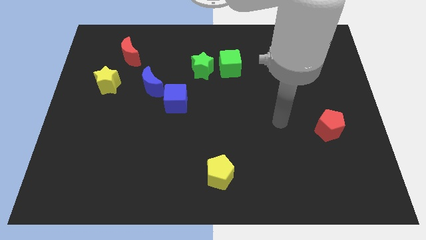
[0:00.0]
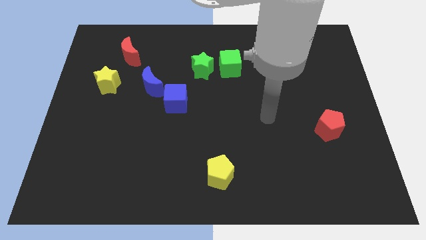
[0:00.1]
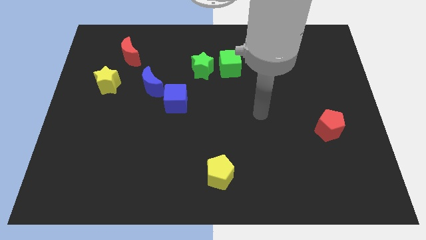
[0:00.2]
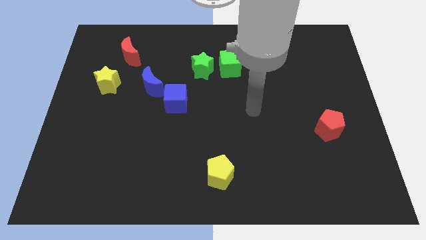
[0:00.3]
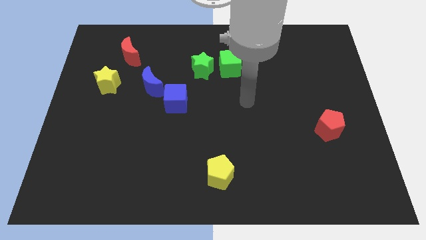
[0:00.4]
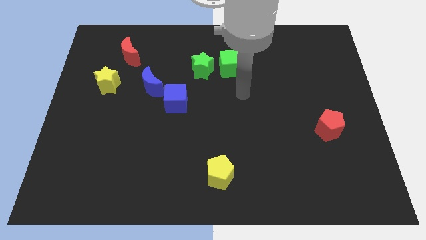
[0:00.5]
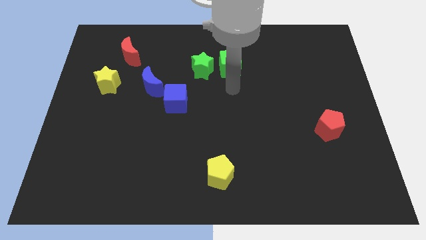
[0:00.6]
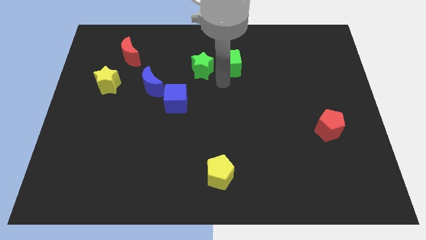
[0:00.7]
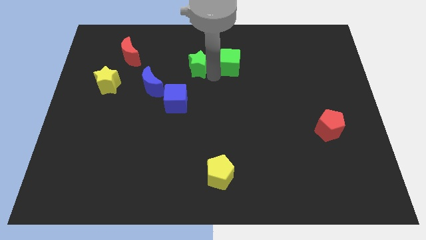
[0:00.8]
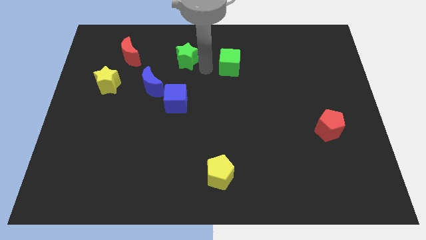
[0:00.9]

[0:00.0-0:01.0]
separate the green cube from the green star

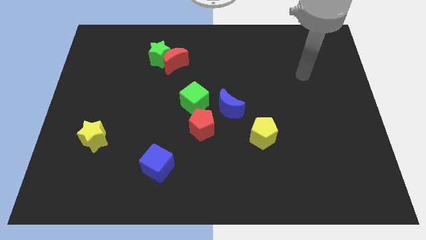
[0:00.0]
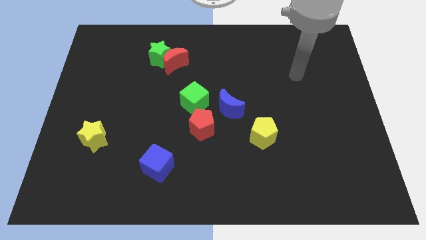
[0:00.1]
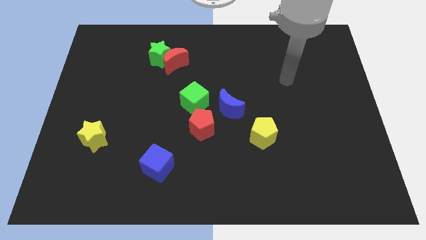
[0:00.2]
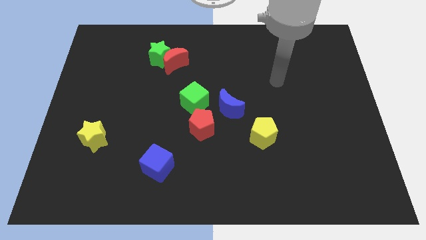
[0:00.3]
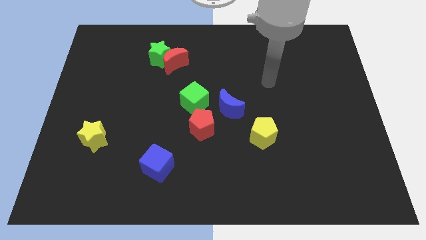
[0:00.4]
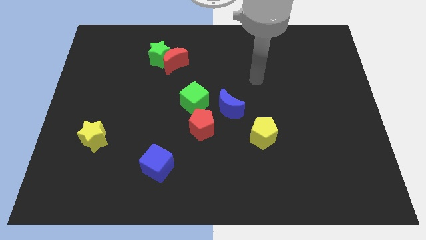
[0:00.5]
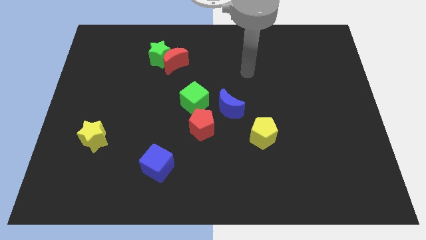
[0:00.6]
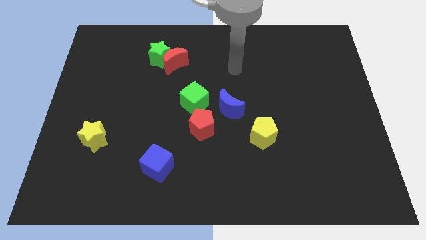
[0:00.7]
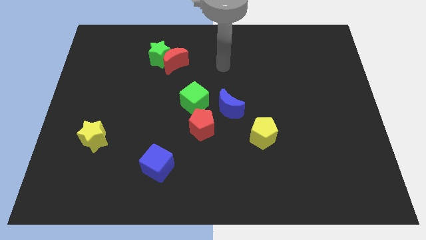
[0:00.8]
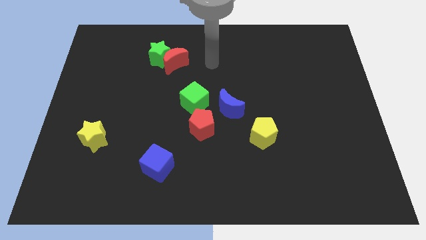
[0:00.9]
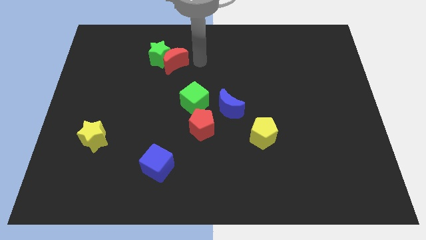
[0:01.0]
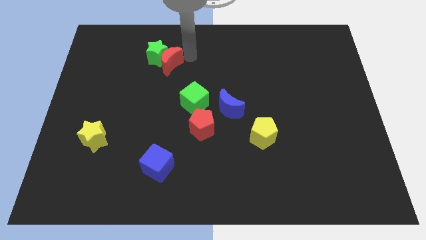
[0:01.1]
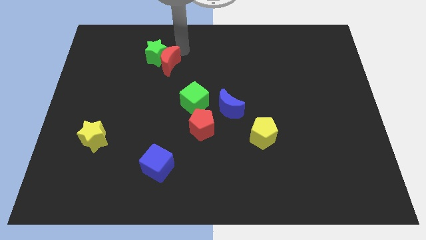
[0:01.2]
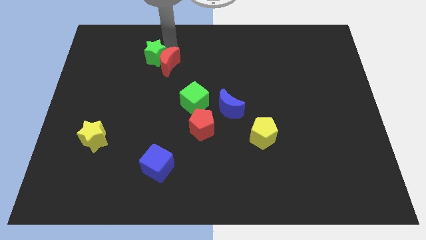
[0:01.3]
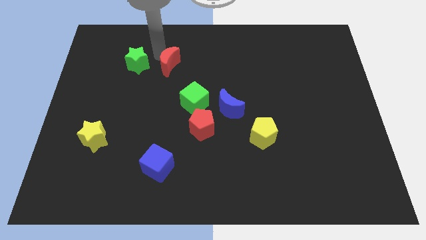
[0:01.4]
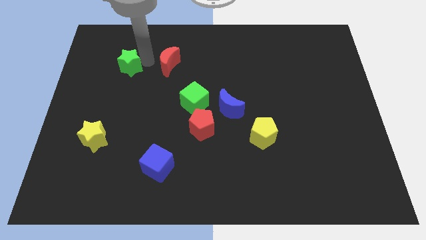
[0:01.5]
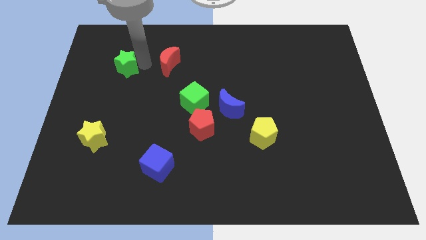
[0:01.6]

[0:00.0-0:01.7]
move the red moon away from the green star

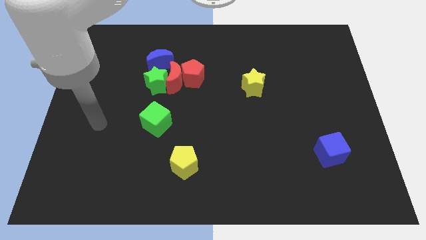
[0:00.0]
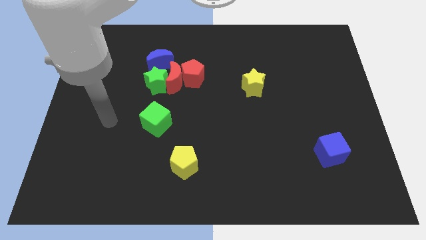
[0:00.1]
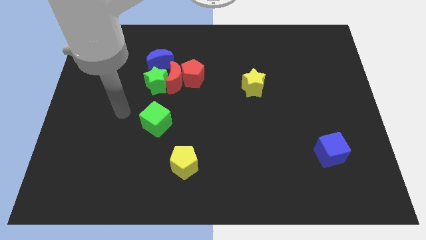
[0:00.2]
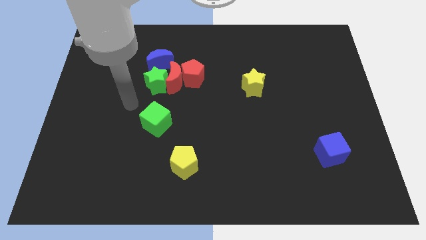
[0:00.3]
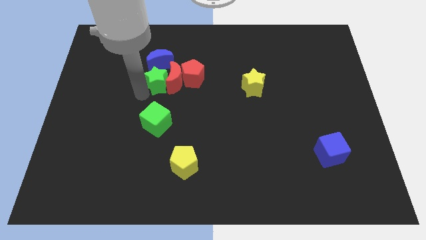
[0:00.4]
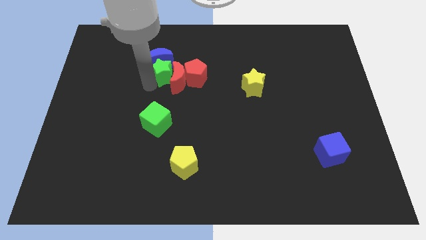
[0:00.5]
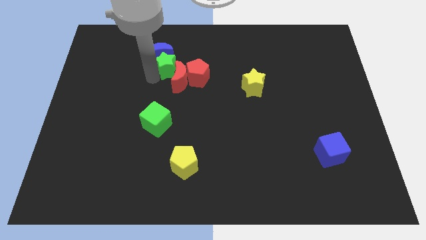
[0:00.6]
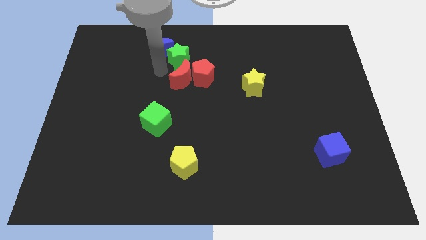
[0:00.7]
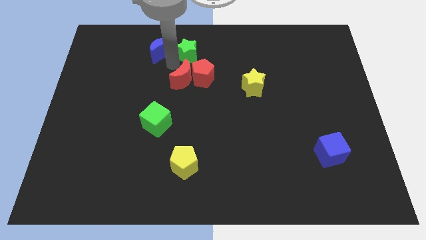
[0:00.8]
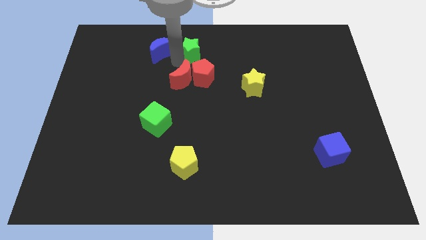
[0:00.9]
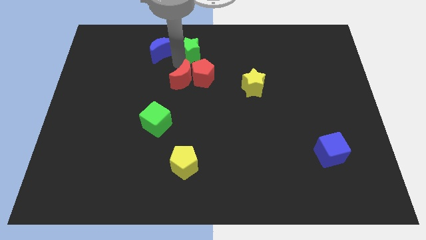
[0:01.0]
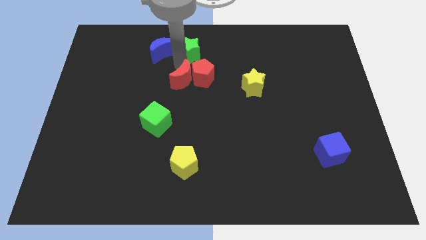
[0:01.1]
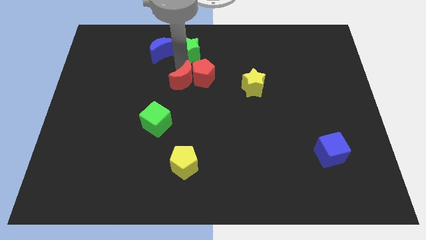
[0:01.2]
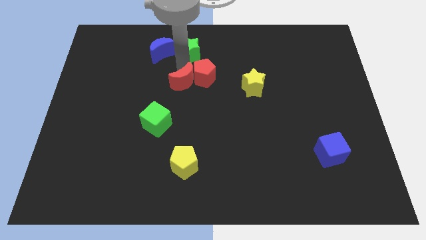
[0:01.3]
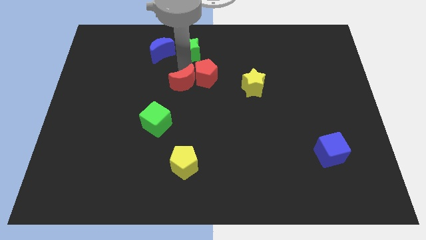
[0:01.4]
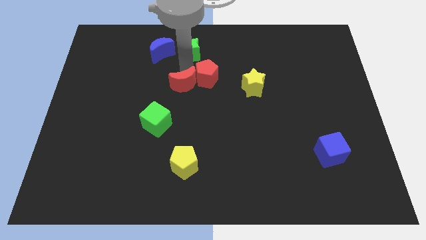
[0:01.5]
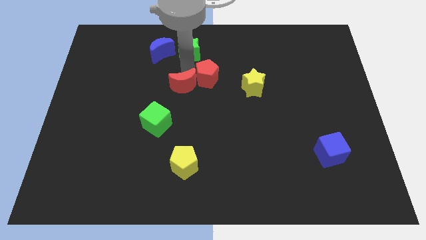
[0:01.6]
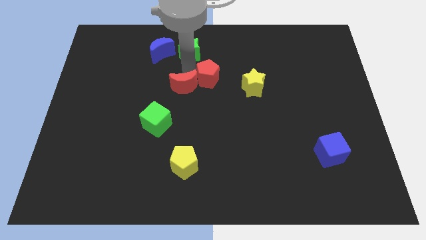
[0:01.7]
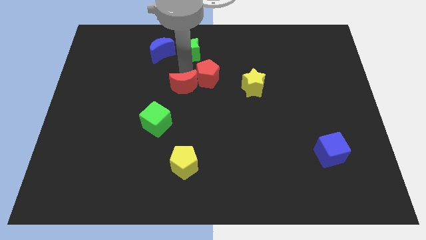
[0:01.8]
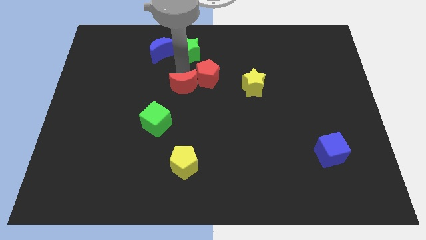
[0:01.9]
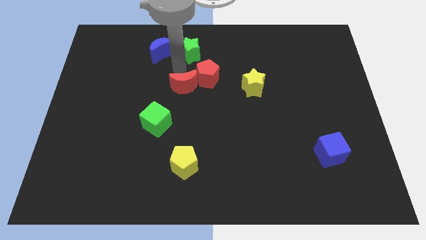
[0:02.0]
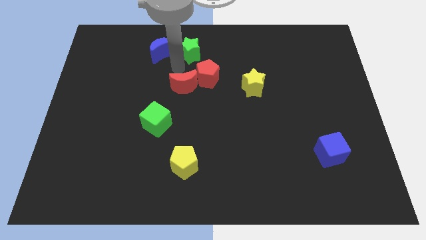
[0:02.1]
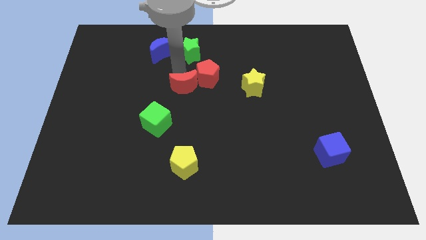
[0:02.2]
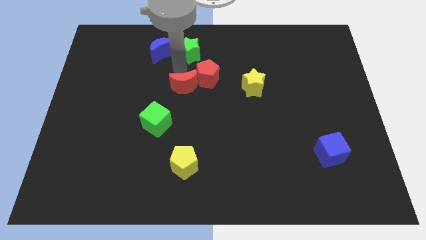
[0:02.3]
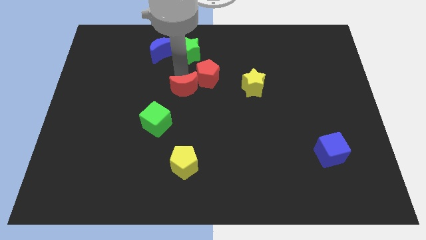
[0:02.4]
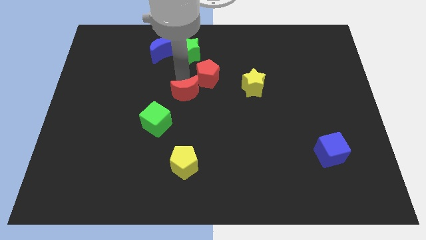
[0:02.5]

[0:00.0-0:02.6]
move the red moon away from the group of blocks

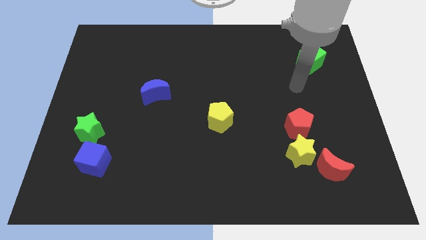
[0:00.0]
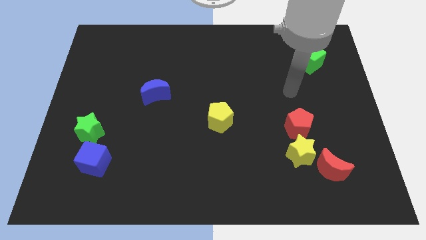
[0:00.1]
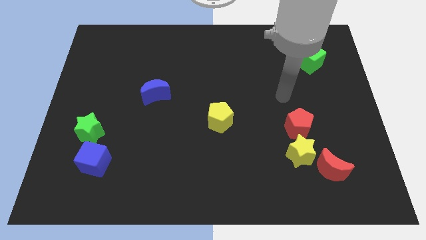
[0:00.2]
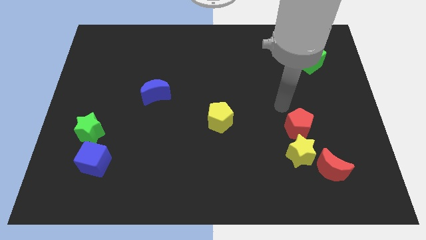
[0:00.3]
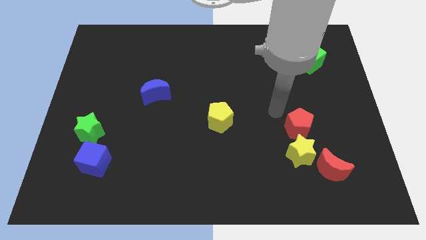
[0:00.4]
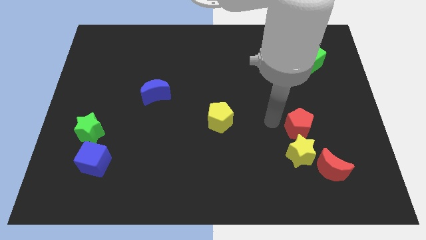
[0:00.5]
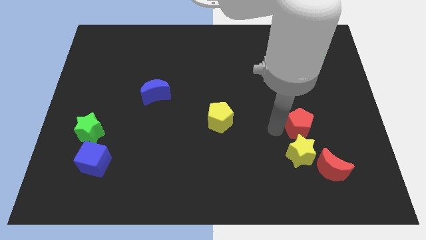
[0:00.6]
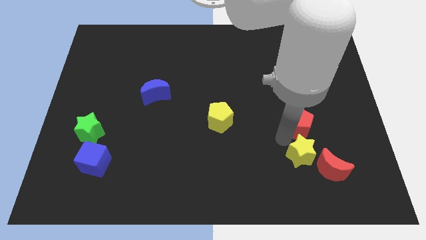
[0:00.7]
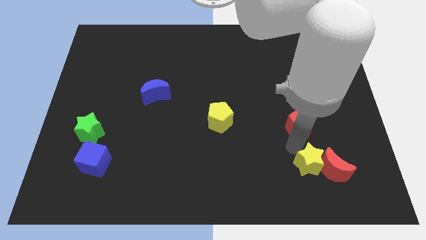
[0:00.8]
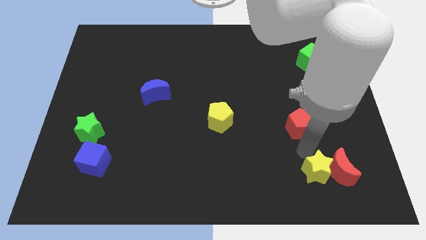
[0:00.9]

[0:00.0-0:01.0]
move the red pentagon away from the yellow star

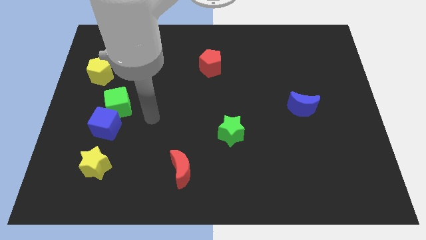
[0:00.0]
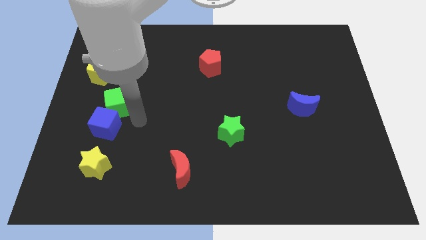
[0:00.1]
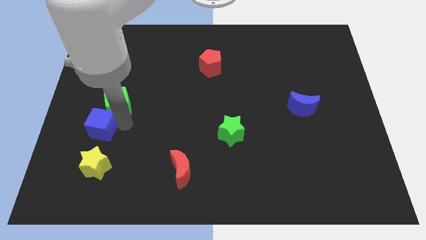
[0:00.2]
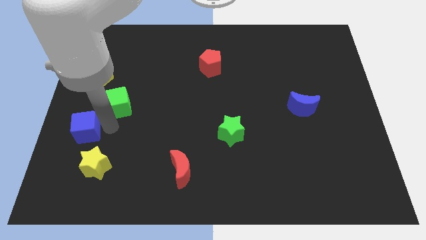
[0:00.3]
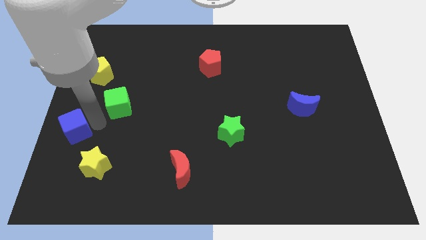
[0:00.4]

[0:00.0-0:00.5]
separate the green cube from the blue cube

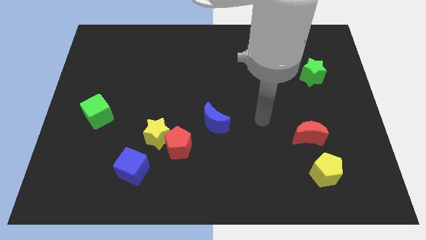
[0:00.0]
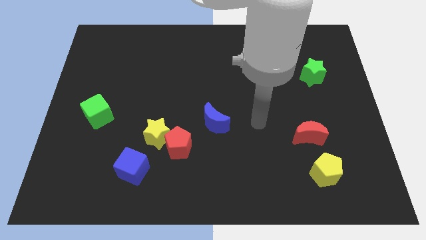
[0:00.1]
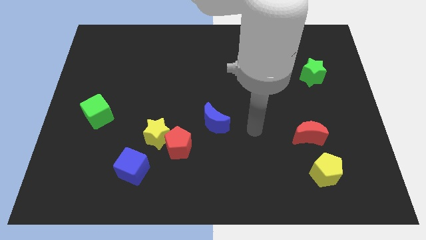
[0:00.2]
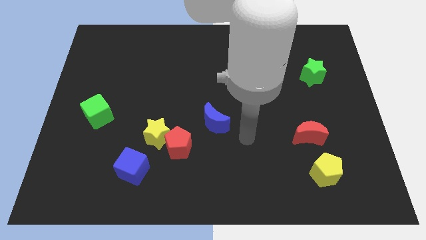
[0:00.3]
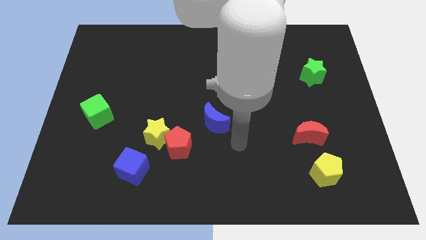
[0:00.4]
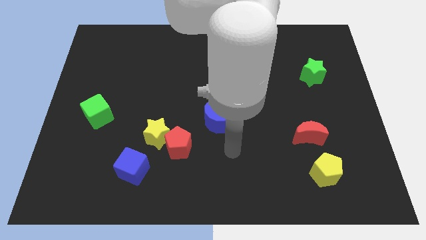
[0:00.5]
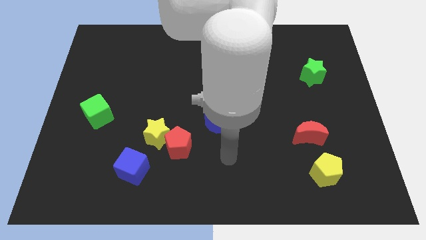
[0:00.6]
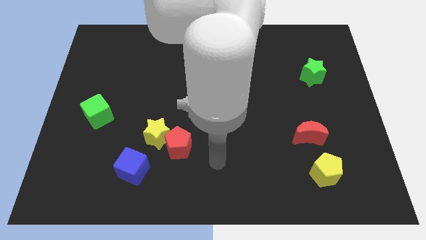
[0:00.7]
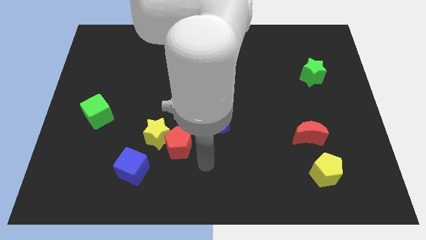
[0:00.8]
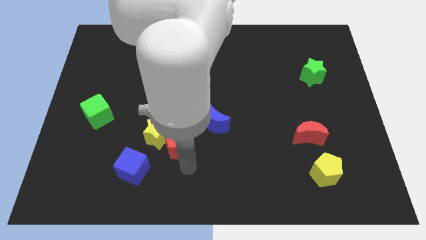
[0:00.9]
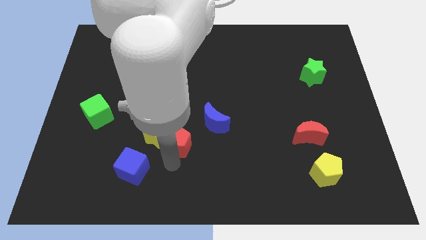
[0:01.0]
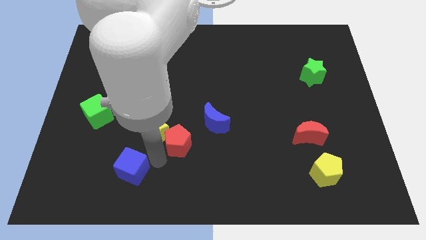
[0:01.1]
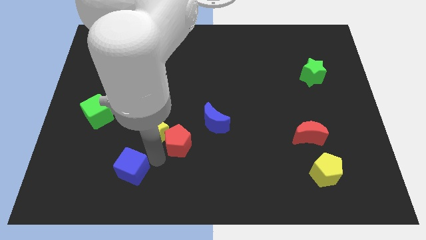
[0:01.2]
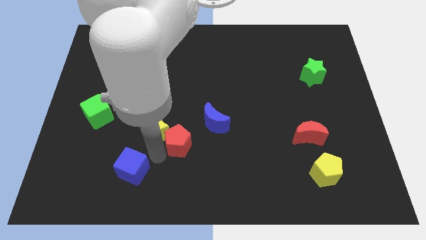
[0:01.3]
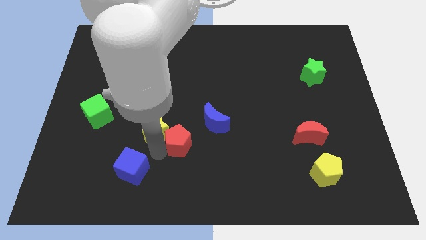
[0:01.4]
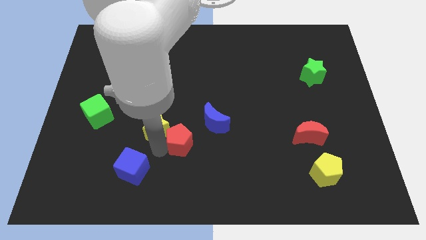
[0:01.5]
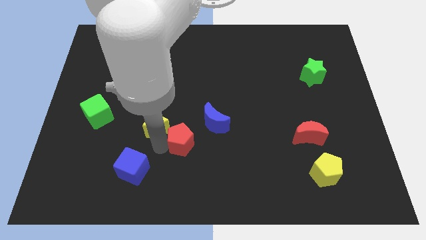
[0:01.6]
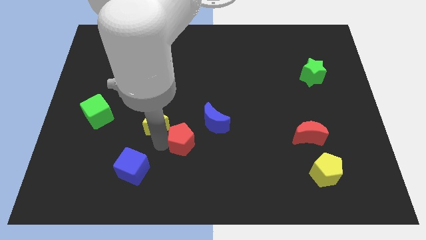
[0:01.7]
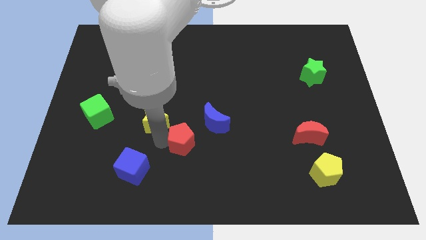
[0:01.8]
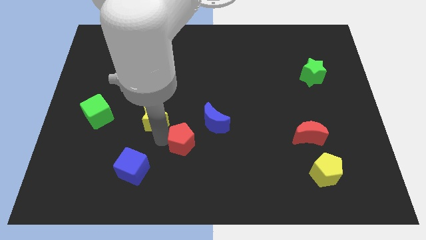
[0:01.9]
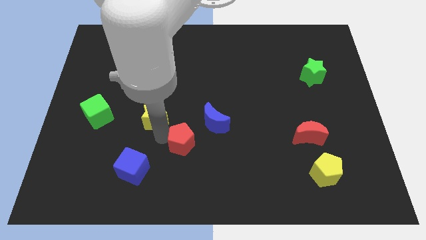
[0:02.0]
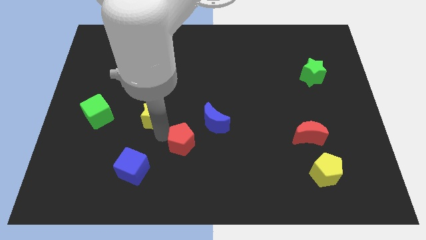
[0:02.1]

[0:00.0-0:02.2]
separate the yellow star from the red pentagon and blue cube

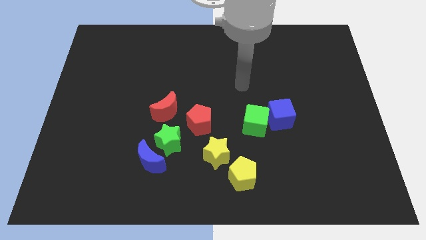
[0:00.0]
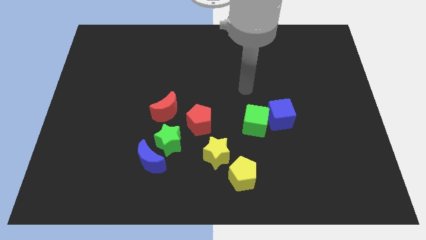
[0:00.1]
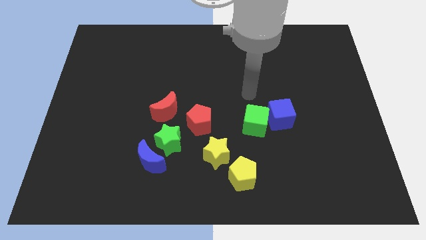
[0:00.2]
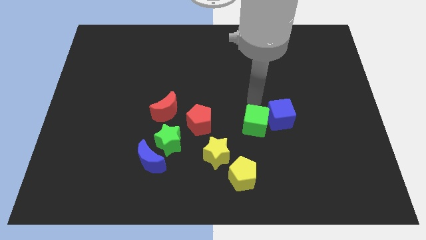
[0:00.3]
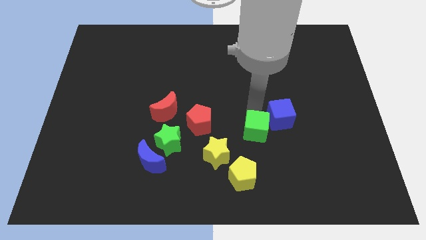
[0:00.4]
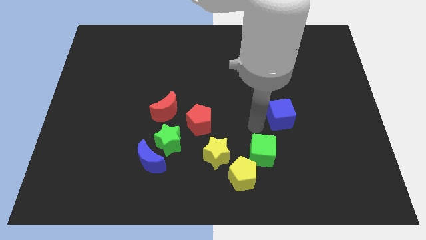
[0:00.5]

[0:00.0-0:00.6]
separate the blue cube from the green cube
